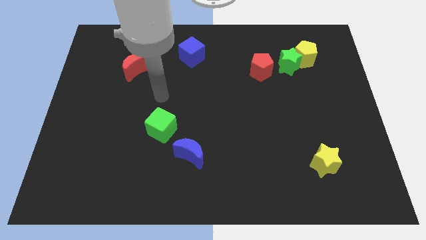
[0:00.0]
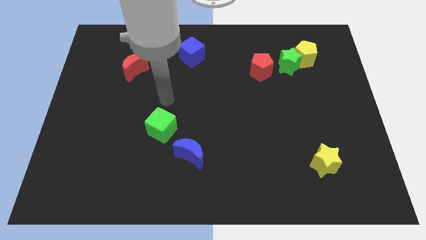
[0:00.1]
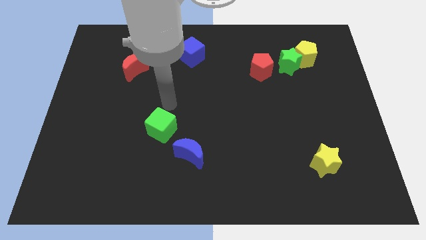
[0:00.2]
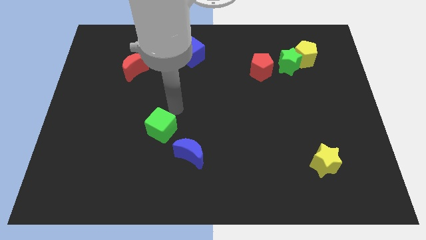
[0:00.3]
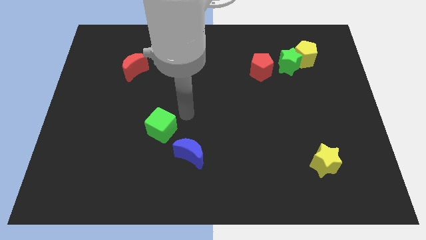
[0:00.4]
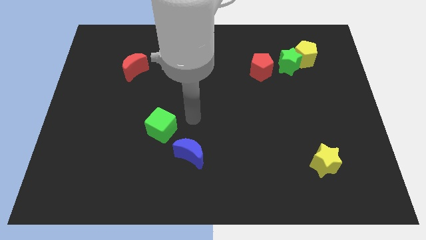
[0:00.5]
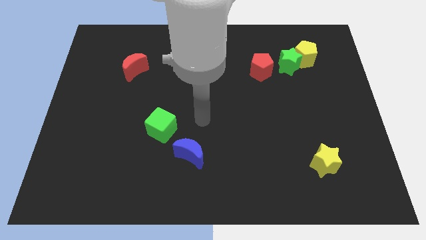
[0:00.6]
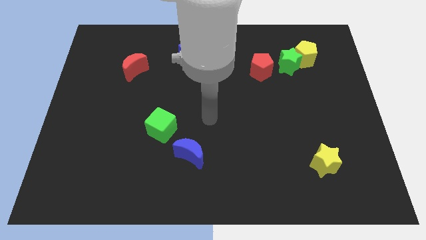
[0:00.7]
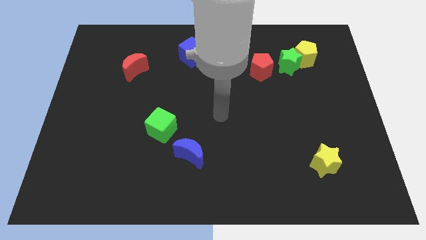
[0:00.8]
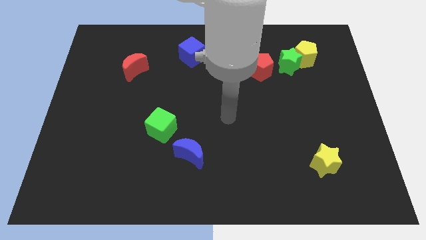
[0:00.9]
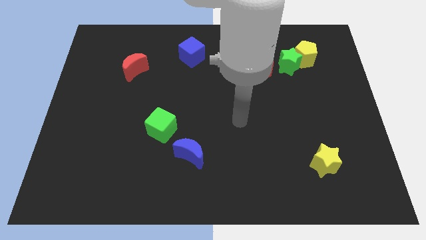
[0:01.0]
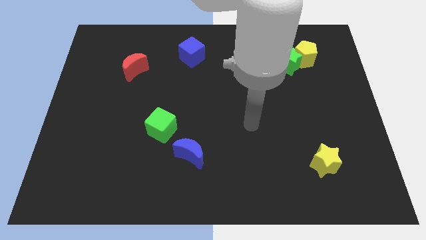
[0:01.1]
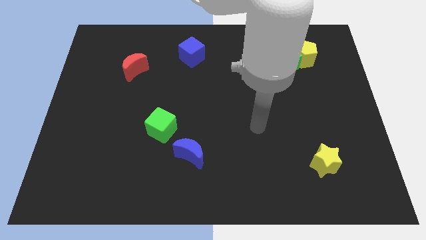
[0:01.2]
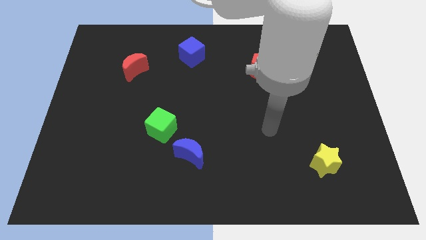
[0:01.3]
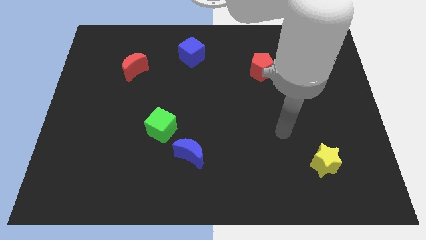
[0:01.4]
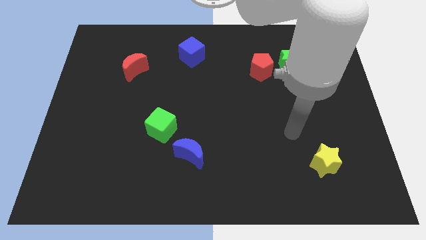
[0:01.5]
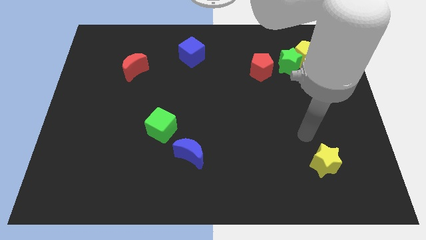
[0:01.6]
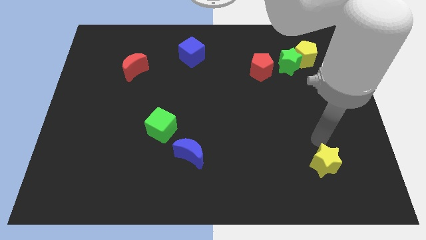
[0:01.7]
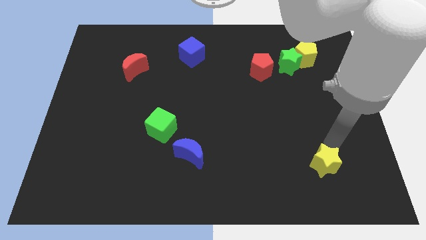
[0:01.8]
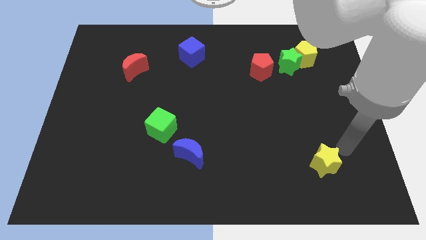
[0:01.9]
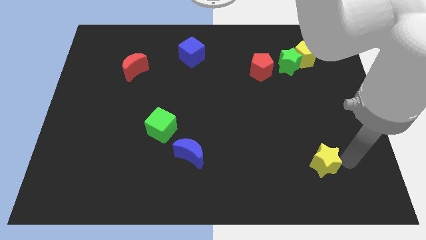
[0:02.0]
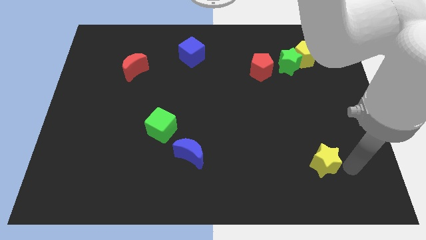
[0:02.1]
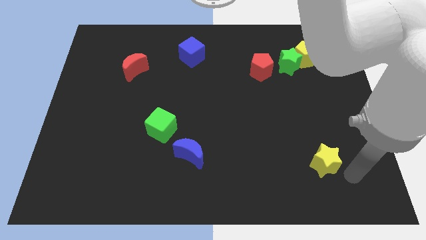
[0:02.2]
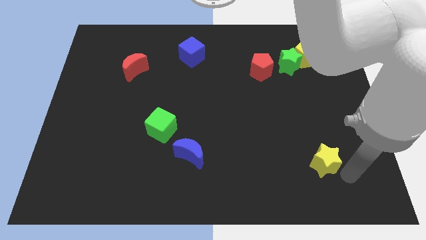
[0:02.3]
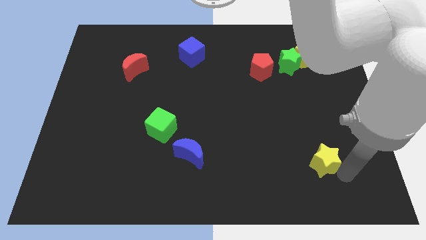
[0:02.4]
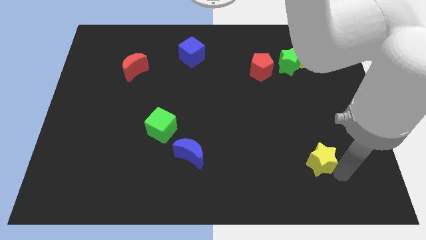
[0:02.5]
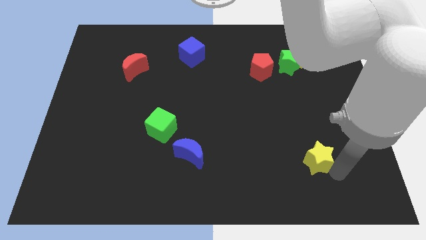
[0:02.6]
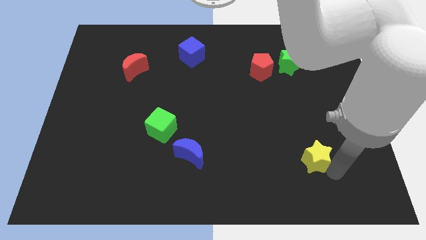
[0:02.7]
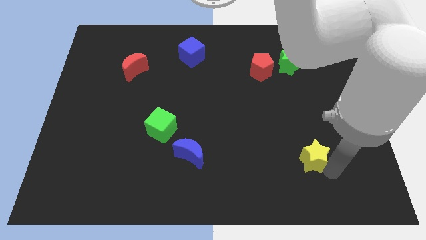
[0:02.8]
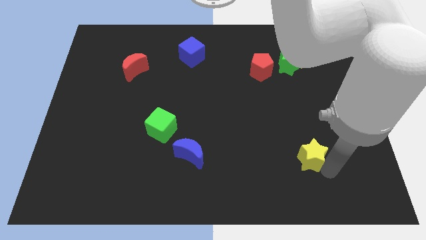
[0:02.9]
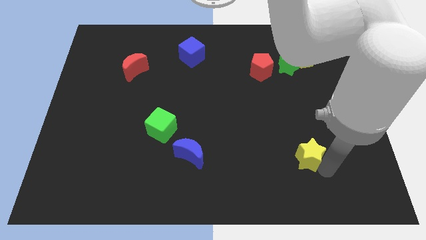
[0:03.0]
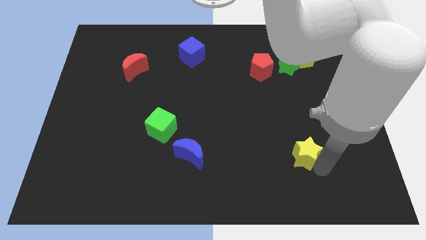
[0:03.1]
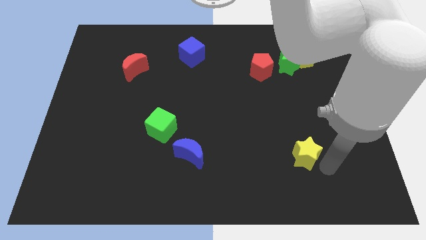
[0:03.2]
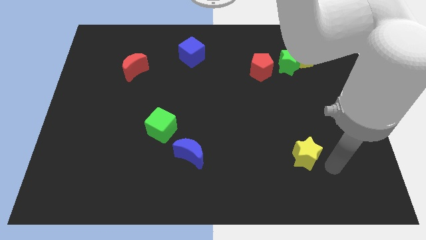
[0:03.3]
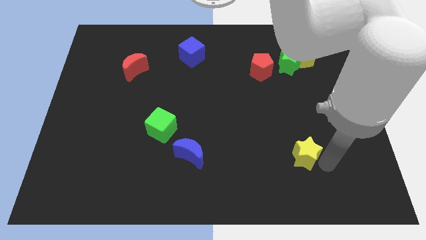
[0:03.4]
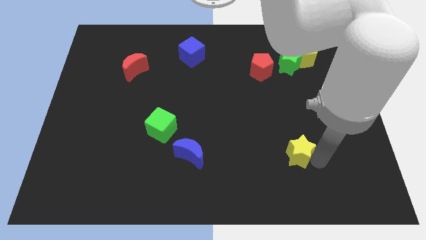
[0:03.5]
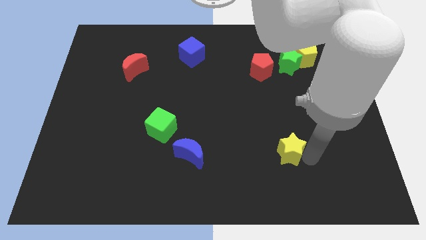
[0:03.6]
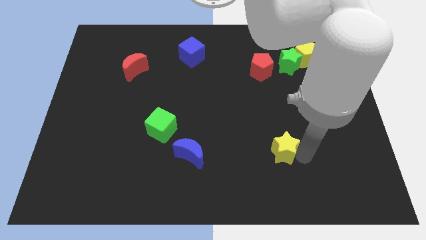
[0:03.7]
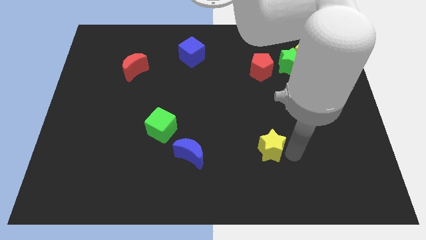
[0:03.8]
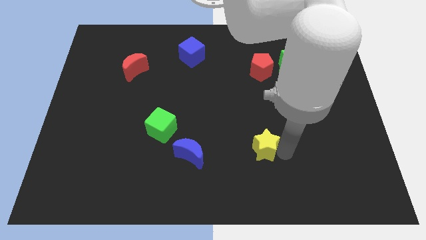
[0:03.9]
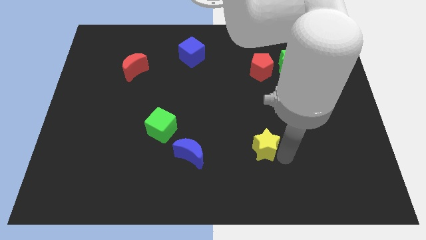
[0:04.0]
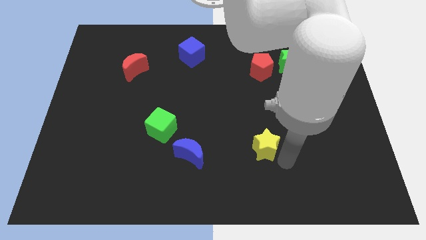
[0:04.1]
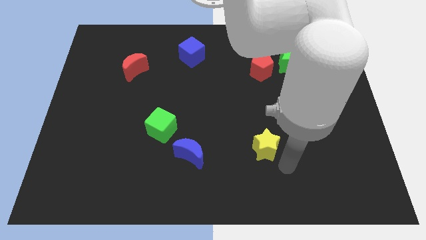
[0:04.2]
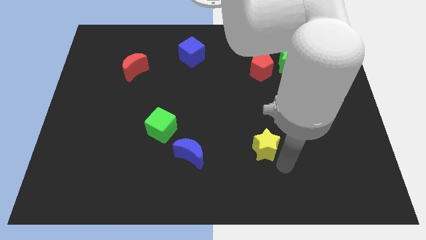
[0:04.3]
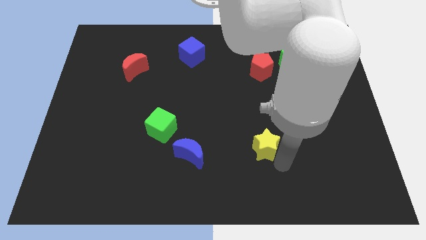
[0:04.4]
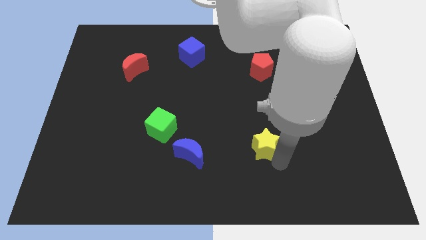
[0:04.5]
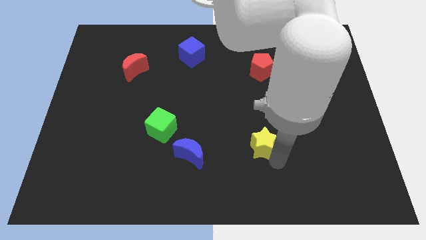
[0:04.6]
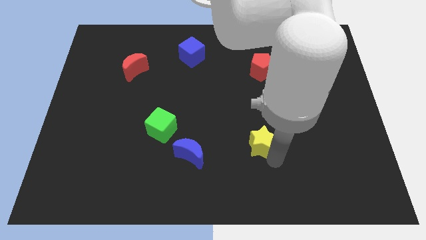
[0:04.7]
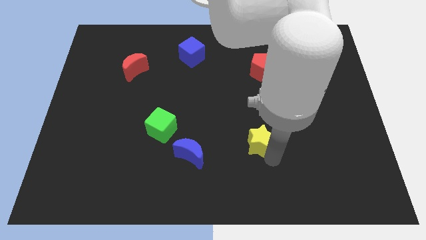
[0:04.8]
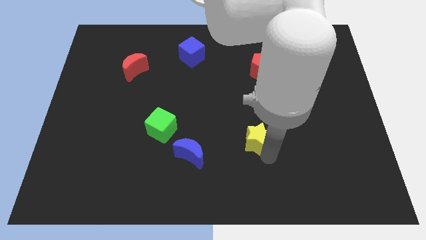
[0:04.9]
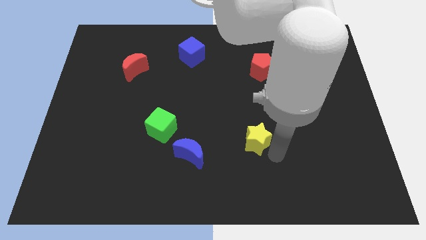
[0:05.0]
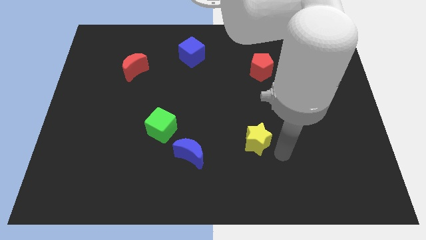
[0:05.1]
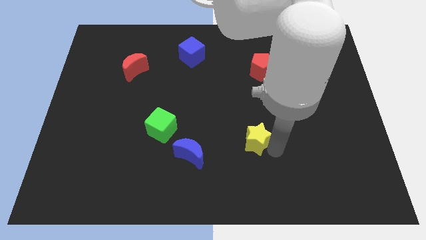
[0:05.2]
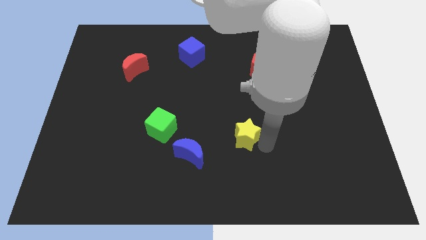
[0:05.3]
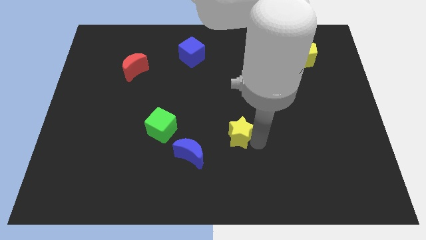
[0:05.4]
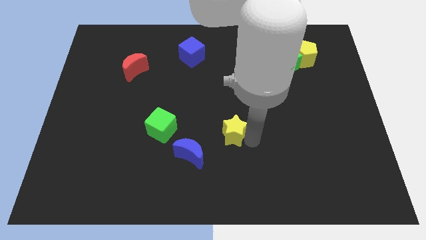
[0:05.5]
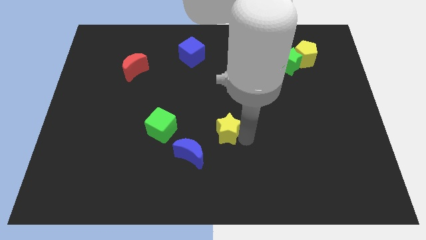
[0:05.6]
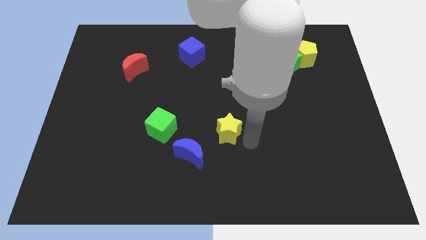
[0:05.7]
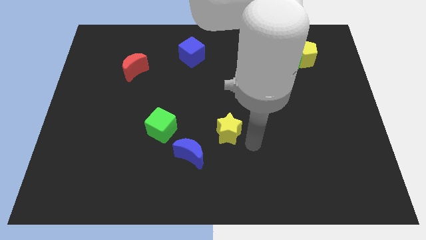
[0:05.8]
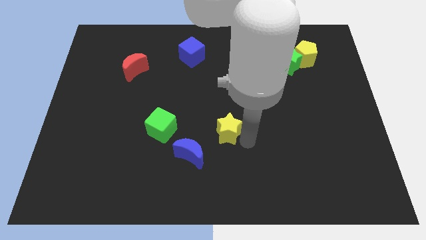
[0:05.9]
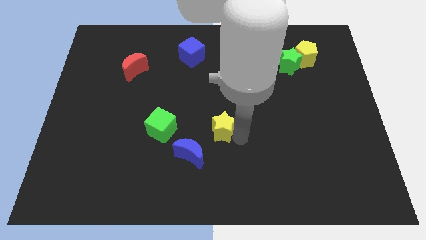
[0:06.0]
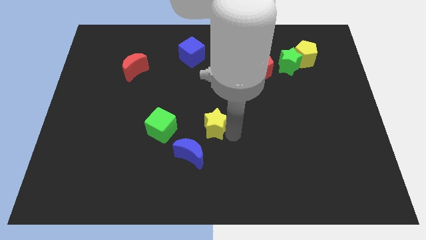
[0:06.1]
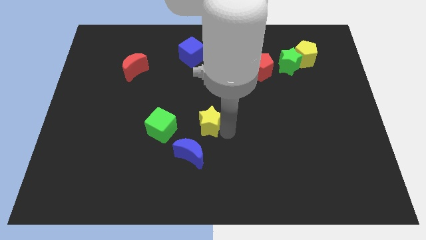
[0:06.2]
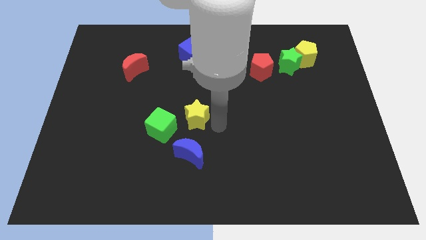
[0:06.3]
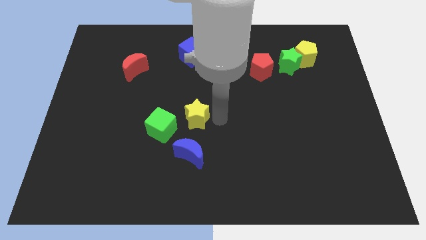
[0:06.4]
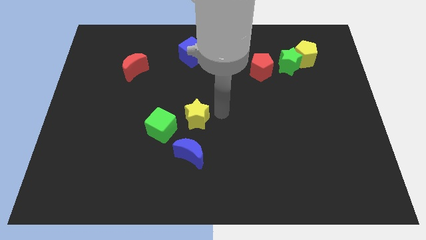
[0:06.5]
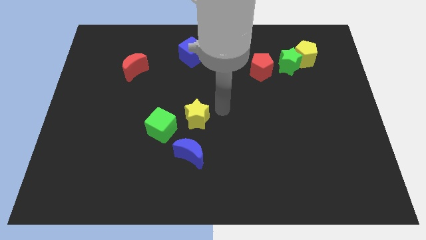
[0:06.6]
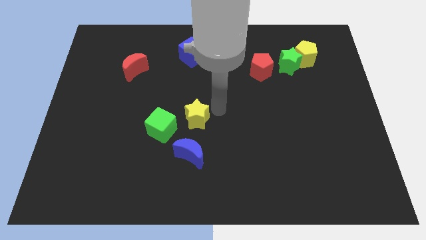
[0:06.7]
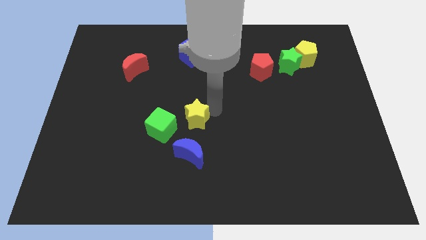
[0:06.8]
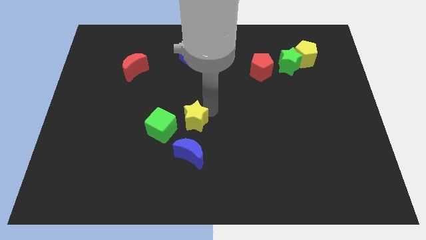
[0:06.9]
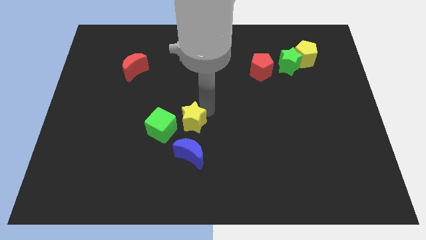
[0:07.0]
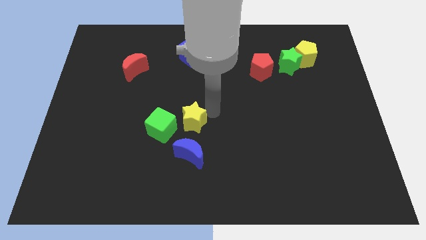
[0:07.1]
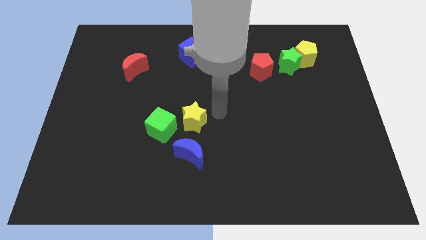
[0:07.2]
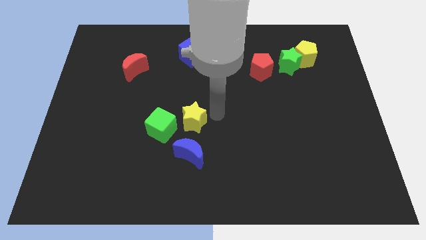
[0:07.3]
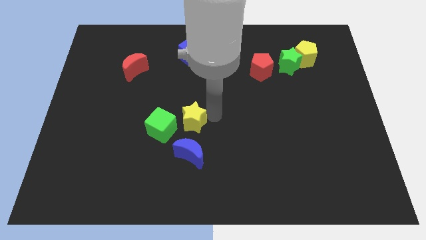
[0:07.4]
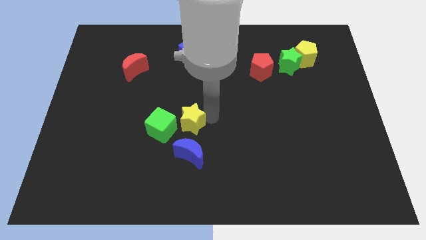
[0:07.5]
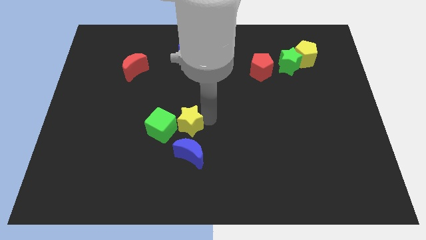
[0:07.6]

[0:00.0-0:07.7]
put the yellow star to the green cube

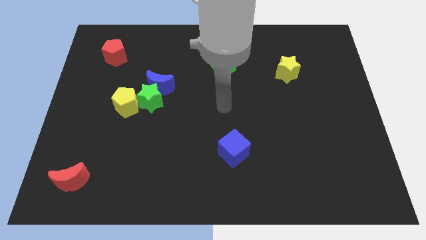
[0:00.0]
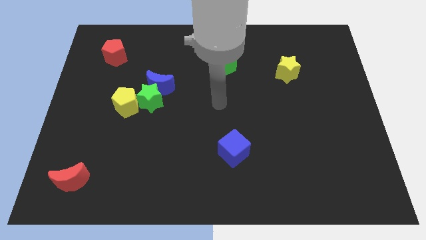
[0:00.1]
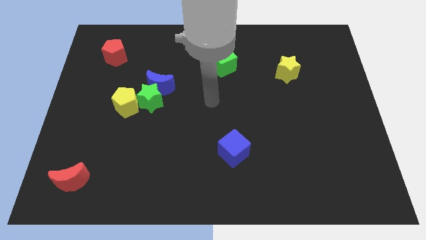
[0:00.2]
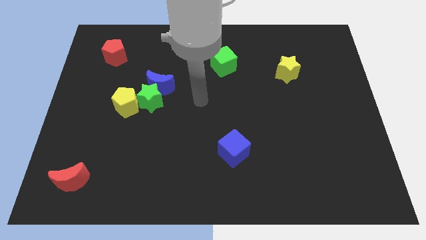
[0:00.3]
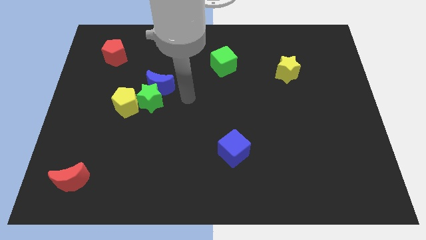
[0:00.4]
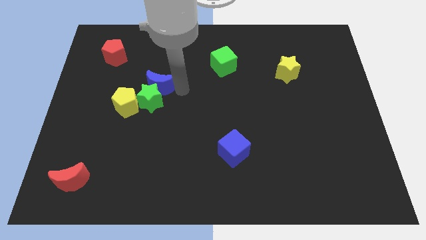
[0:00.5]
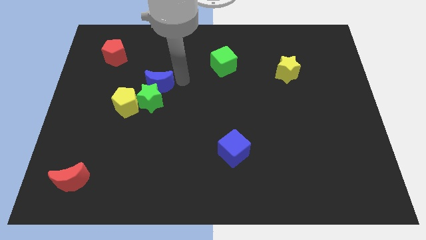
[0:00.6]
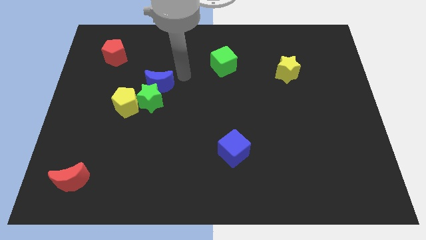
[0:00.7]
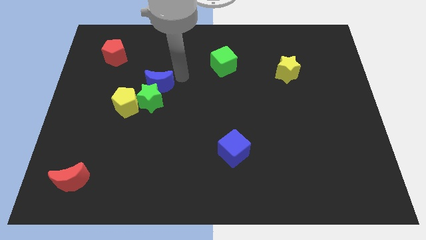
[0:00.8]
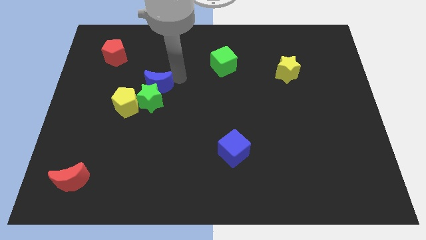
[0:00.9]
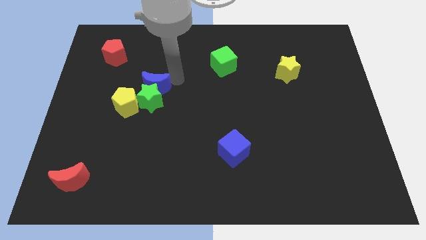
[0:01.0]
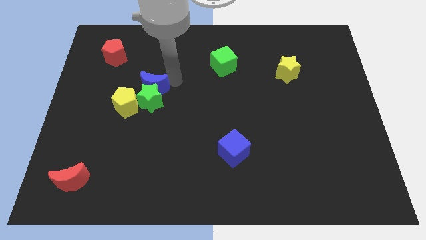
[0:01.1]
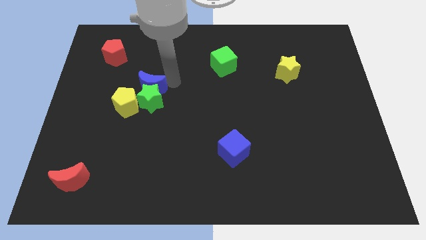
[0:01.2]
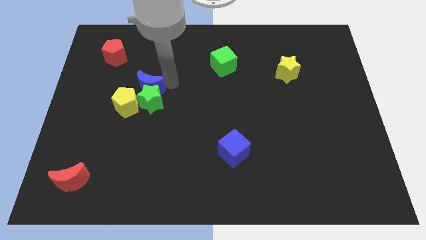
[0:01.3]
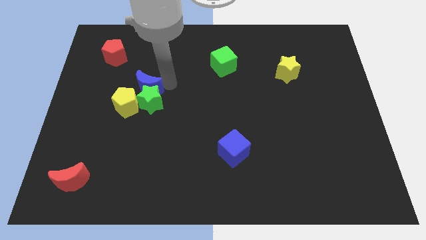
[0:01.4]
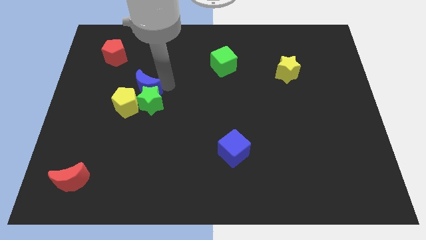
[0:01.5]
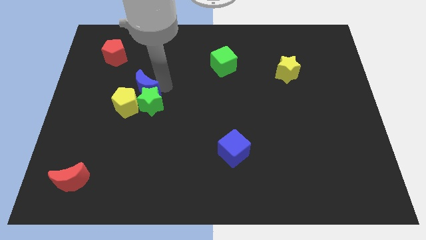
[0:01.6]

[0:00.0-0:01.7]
put the blue moon next to the yellow pentagon
